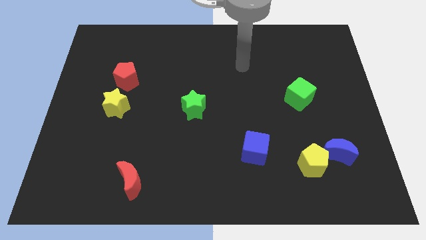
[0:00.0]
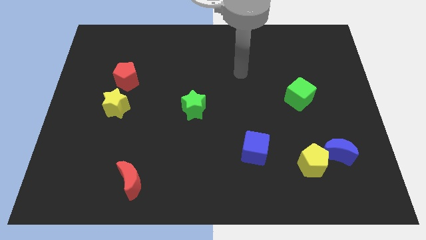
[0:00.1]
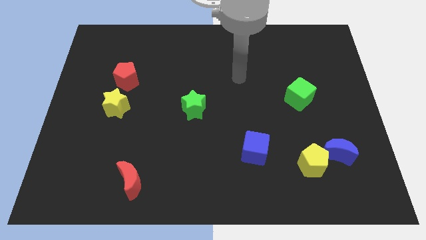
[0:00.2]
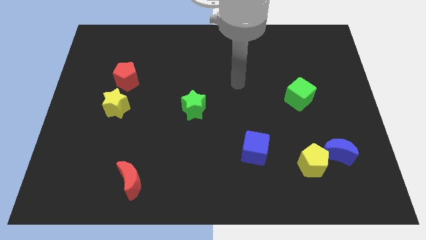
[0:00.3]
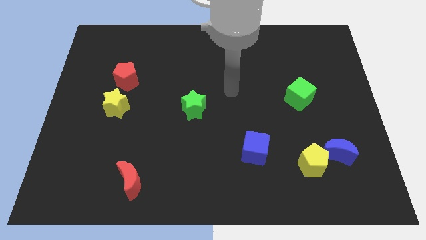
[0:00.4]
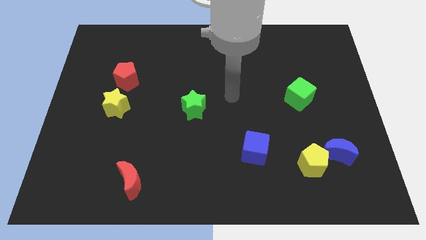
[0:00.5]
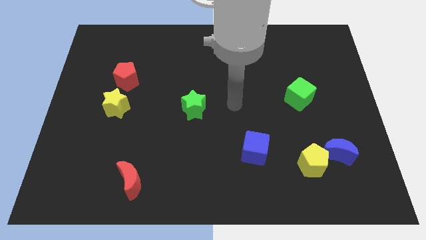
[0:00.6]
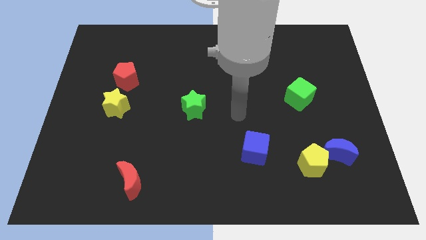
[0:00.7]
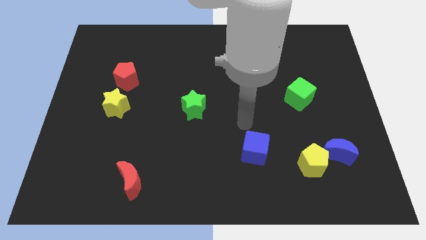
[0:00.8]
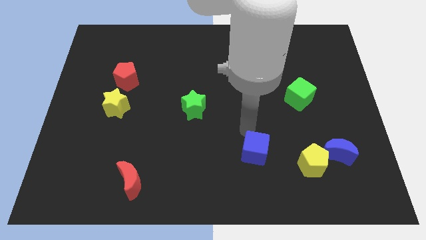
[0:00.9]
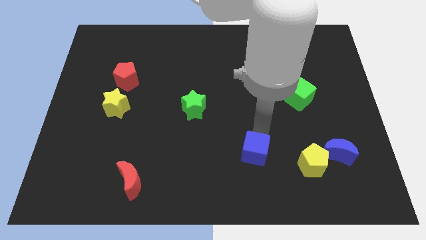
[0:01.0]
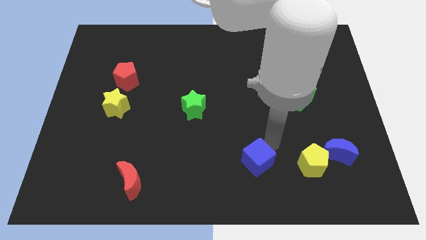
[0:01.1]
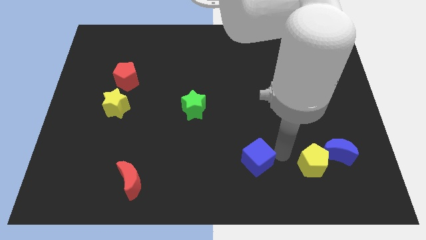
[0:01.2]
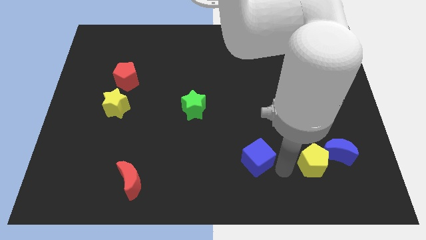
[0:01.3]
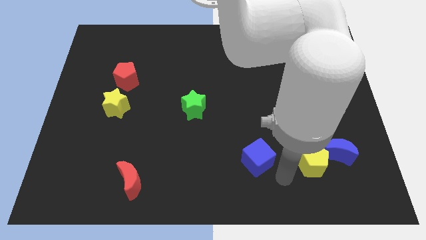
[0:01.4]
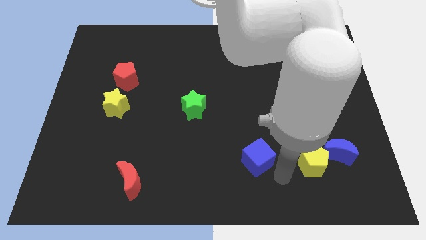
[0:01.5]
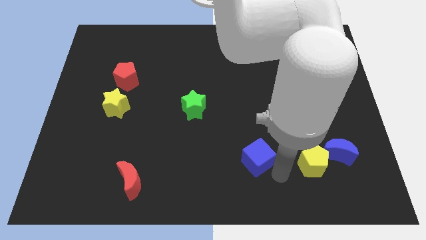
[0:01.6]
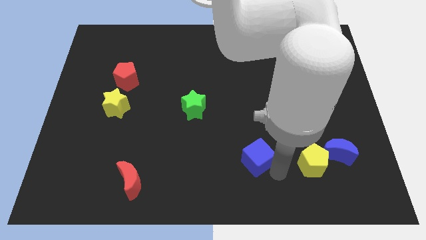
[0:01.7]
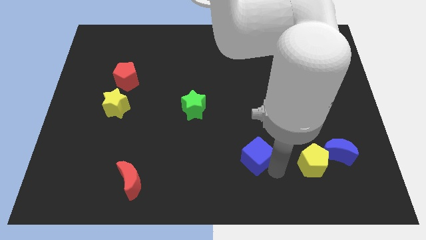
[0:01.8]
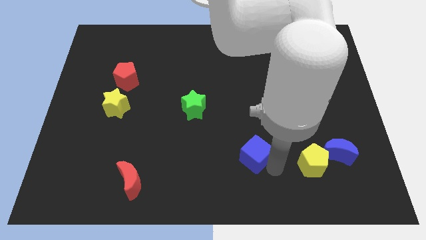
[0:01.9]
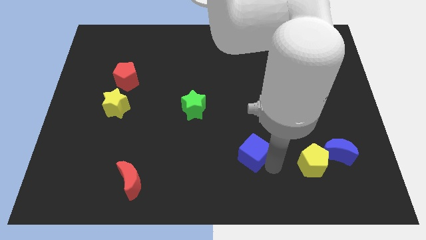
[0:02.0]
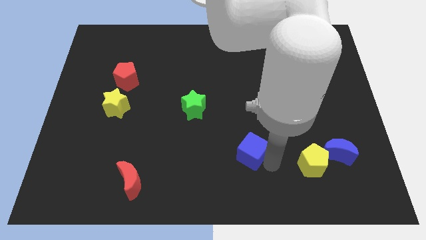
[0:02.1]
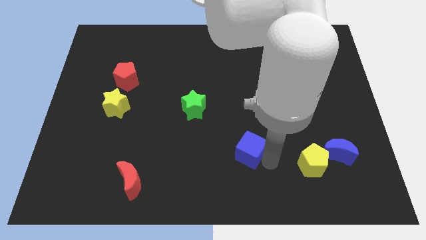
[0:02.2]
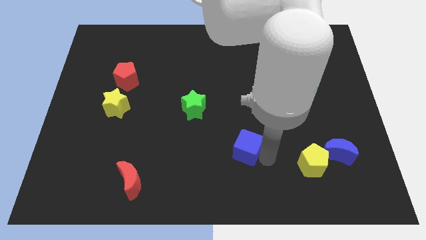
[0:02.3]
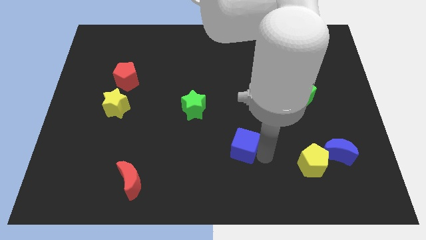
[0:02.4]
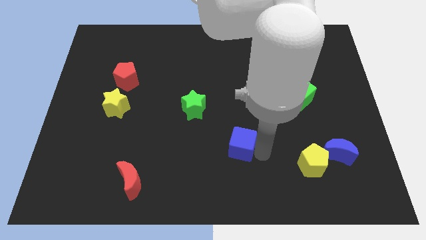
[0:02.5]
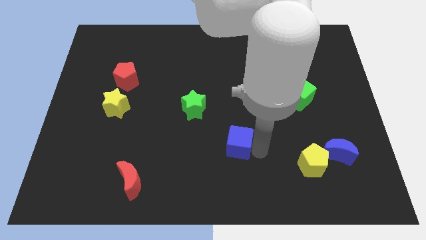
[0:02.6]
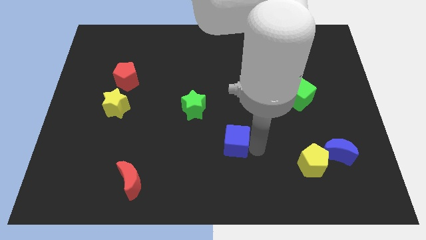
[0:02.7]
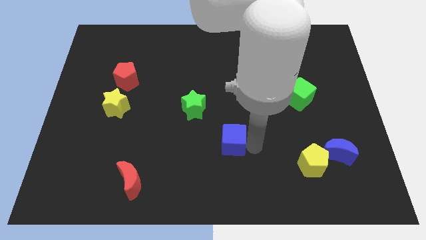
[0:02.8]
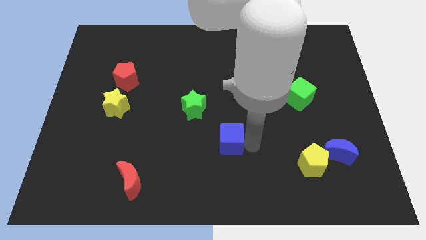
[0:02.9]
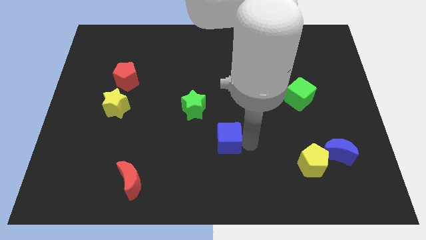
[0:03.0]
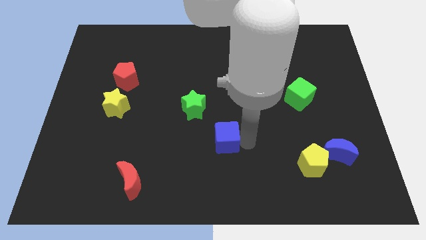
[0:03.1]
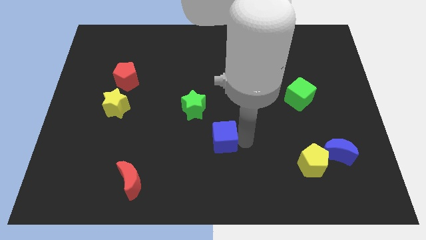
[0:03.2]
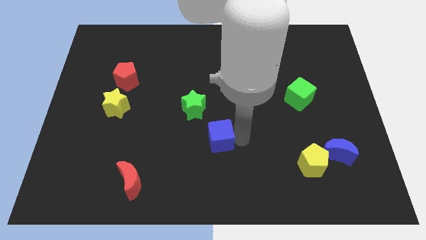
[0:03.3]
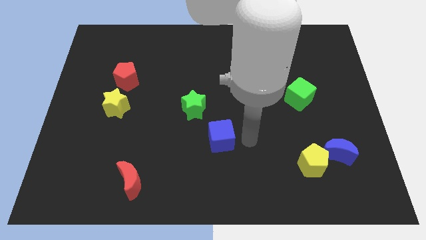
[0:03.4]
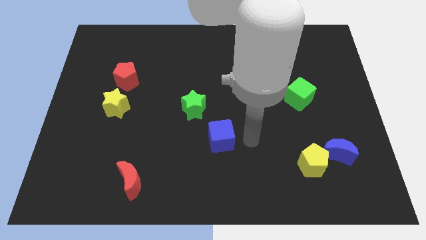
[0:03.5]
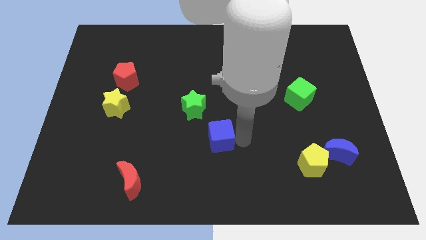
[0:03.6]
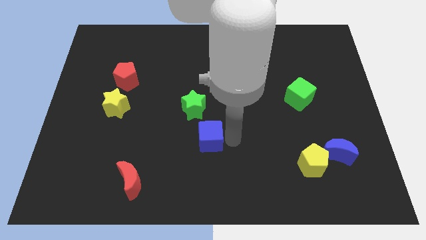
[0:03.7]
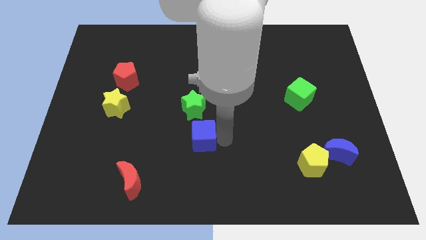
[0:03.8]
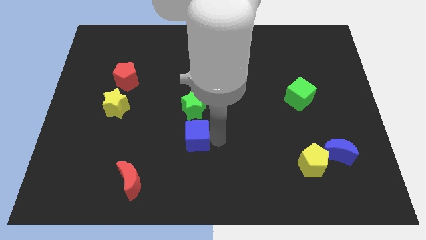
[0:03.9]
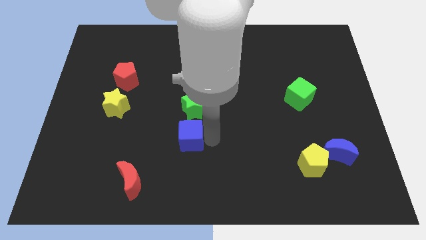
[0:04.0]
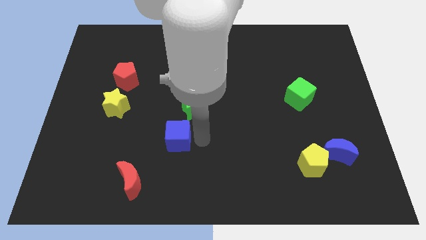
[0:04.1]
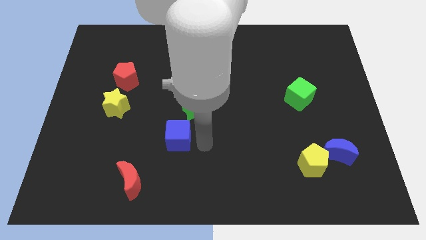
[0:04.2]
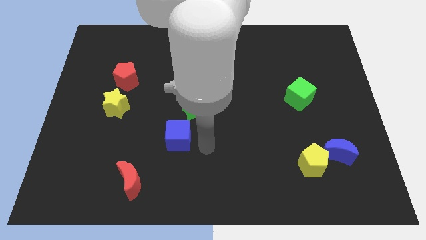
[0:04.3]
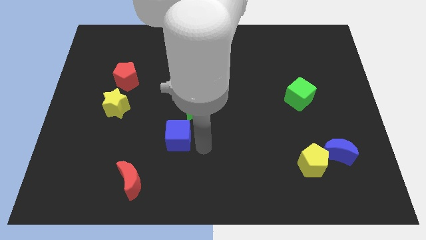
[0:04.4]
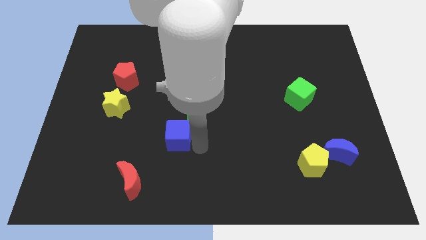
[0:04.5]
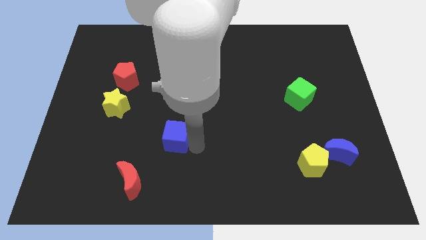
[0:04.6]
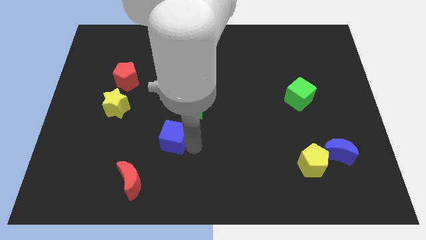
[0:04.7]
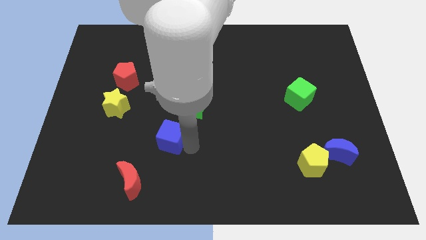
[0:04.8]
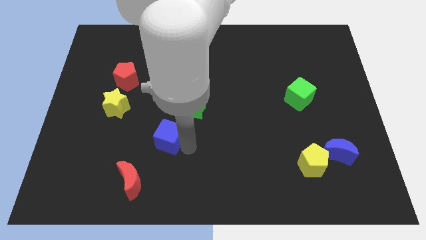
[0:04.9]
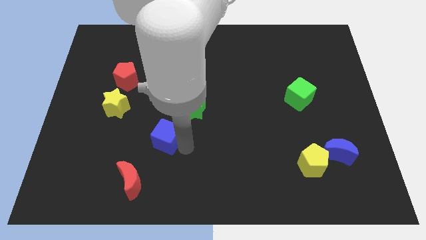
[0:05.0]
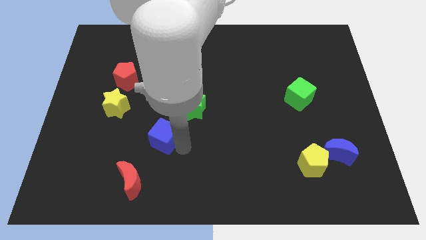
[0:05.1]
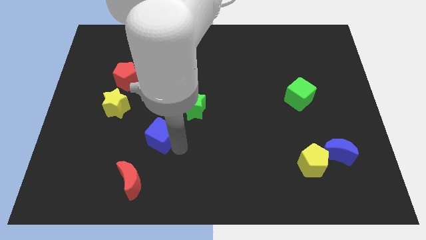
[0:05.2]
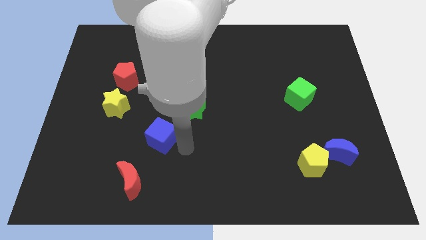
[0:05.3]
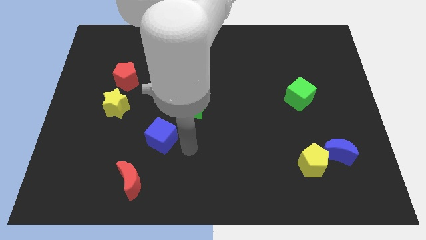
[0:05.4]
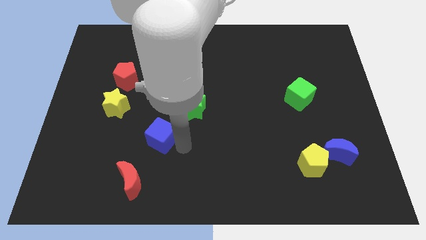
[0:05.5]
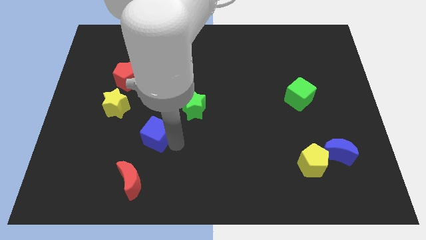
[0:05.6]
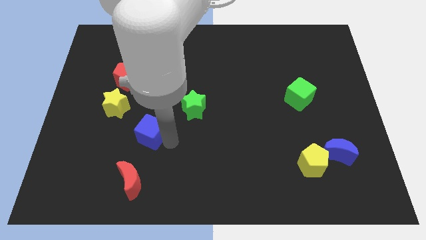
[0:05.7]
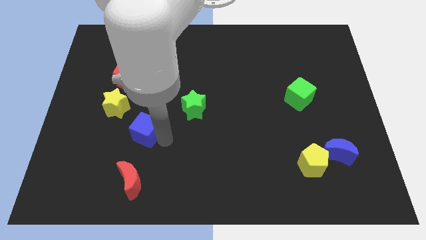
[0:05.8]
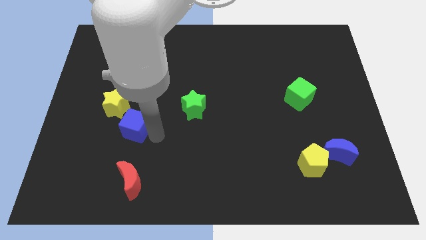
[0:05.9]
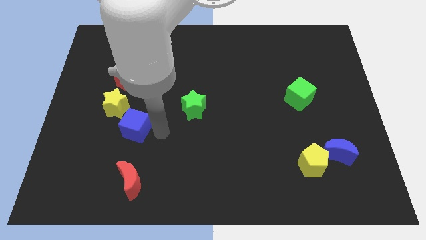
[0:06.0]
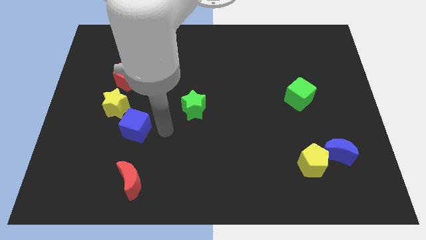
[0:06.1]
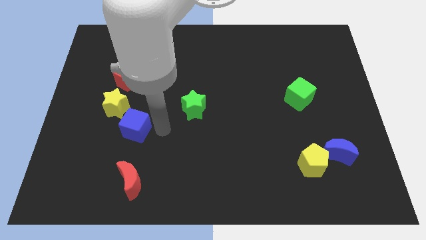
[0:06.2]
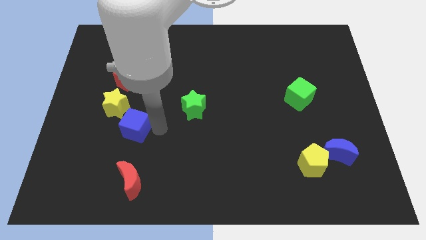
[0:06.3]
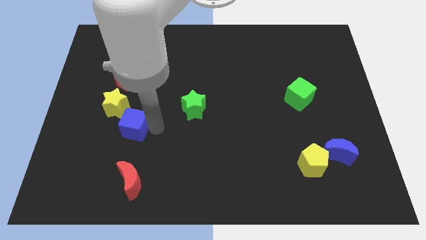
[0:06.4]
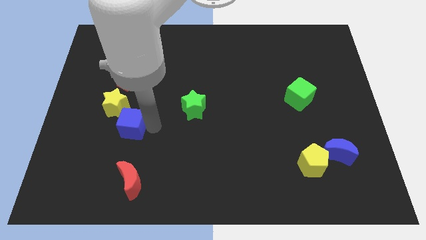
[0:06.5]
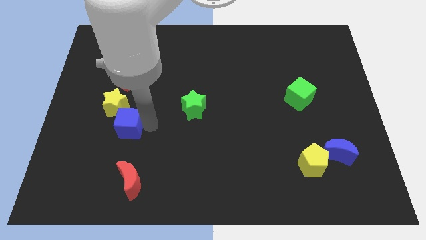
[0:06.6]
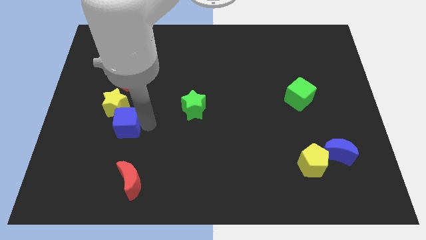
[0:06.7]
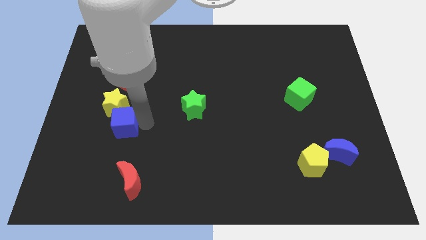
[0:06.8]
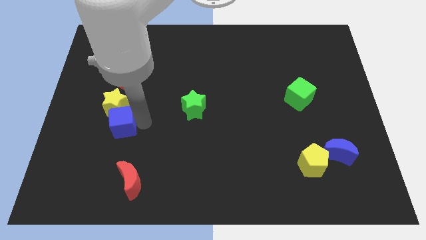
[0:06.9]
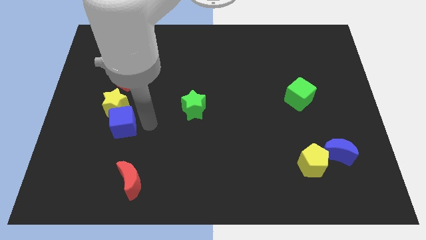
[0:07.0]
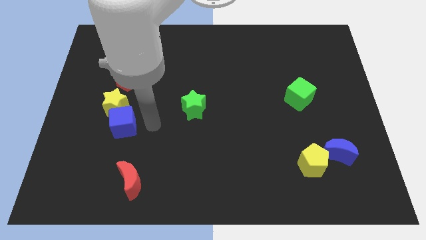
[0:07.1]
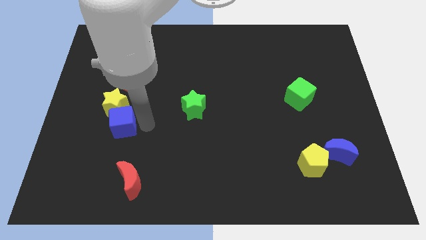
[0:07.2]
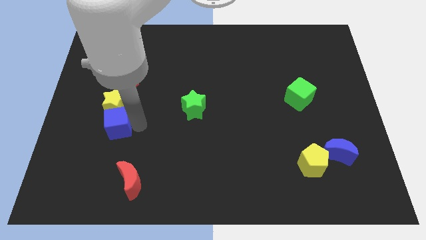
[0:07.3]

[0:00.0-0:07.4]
put the blue cube to the bottom left side of the yellow star
